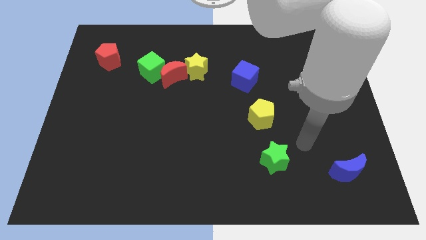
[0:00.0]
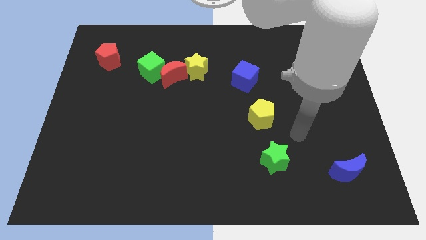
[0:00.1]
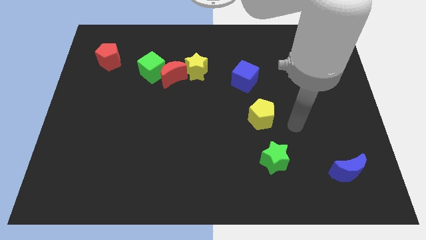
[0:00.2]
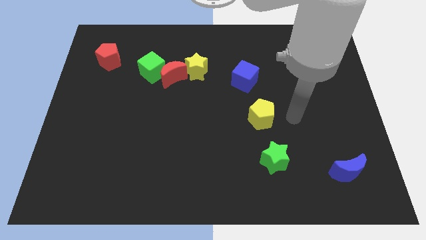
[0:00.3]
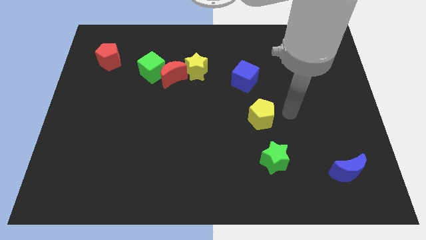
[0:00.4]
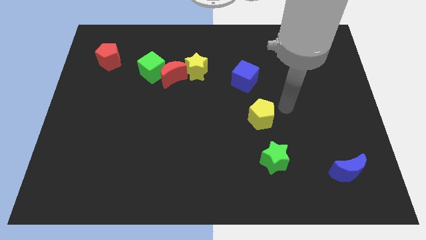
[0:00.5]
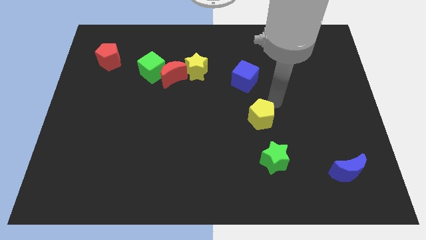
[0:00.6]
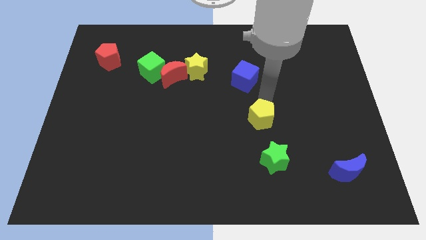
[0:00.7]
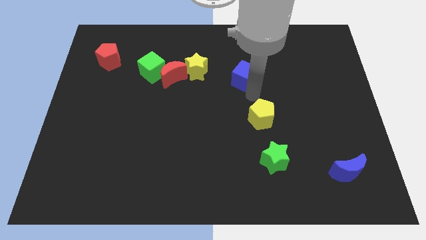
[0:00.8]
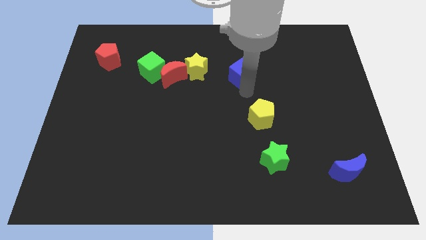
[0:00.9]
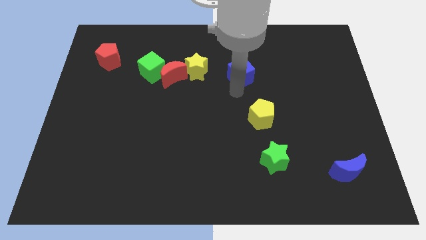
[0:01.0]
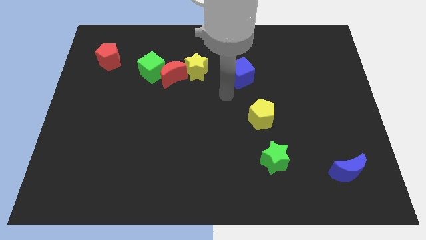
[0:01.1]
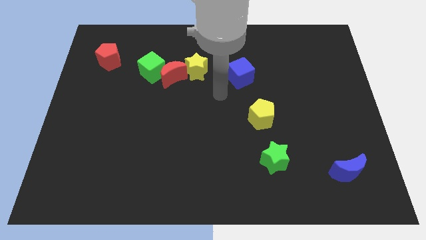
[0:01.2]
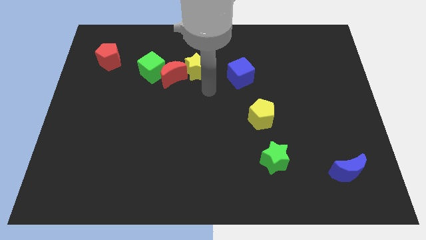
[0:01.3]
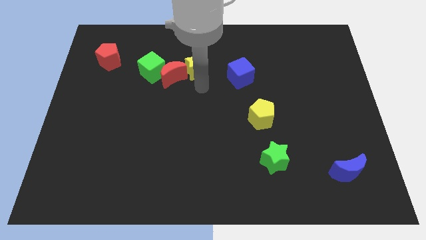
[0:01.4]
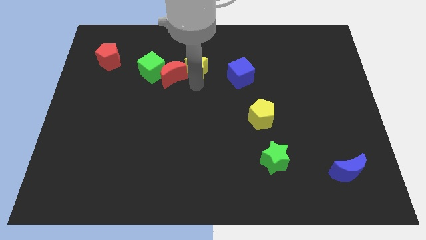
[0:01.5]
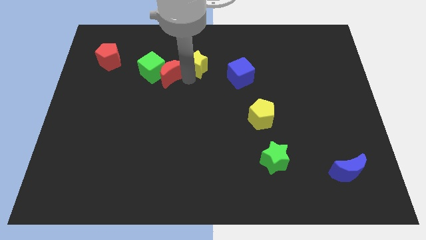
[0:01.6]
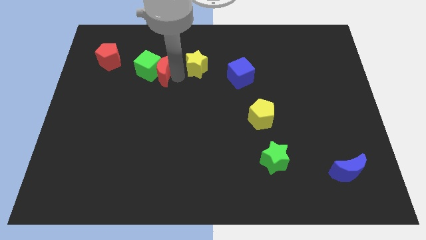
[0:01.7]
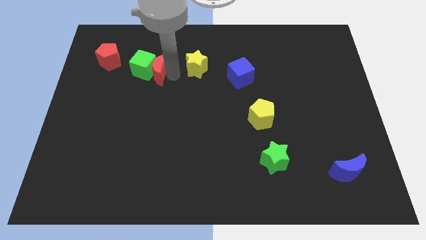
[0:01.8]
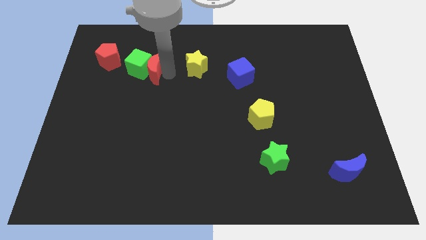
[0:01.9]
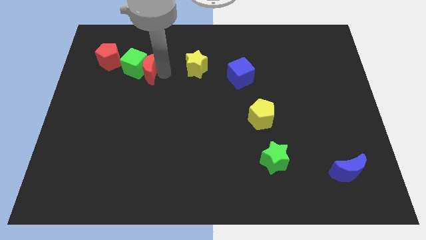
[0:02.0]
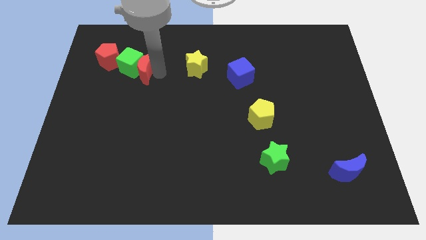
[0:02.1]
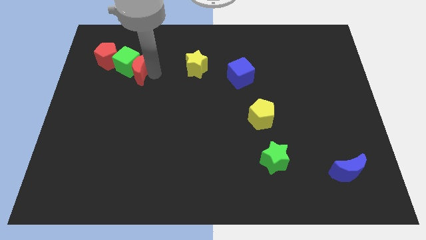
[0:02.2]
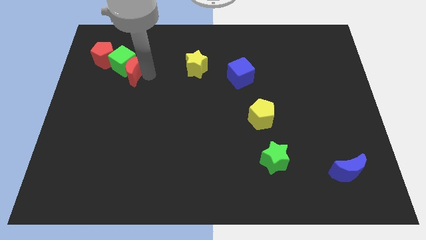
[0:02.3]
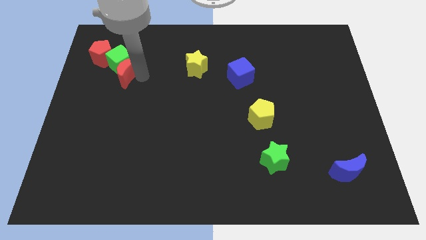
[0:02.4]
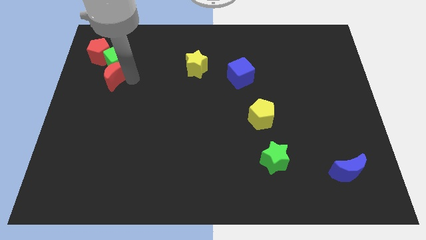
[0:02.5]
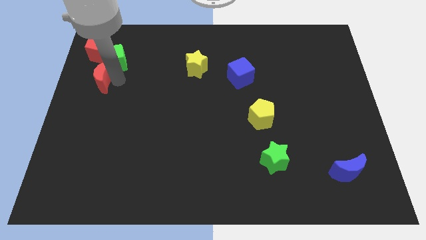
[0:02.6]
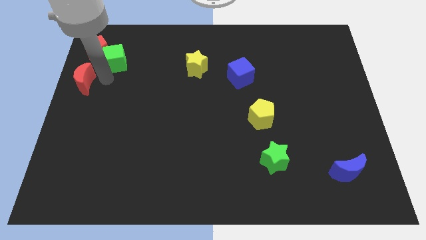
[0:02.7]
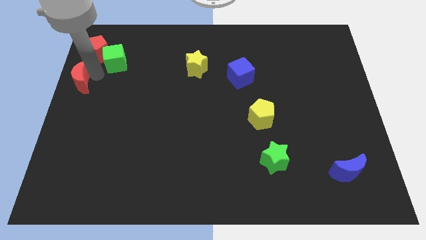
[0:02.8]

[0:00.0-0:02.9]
separate the green cube from the red moon

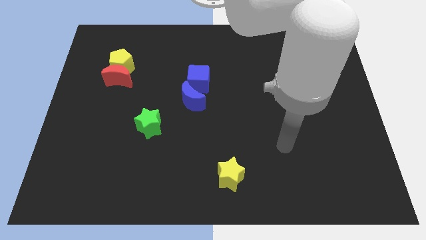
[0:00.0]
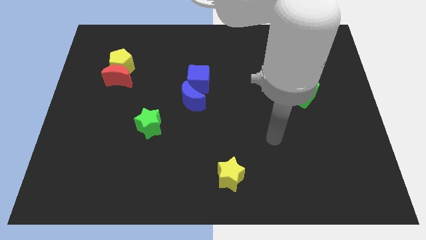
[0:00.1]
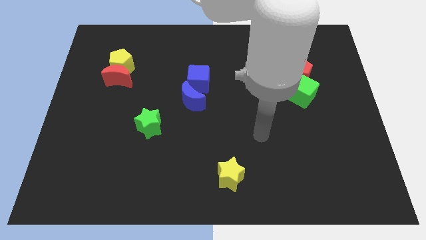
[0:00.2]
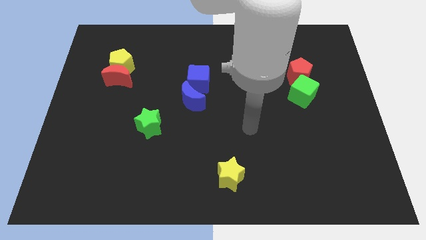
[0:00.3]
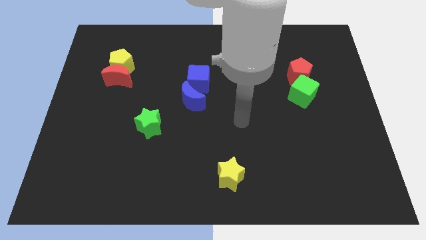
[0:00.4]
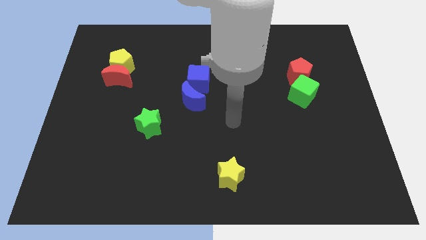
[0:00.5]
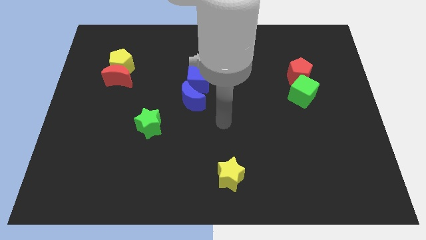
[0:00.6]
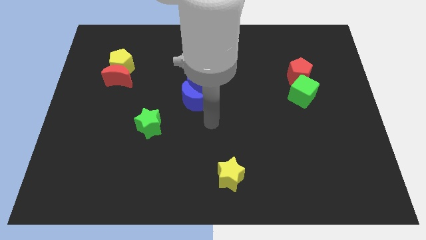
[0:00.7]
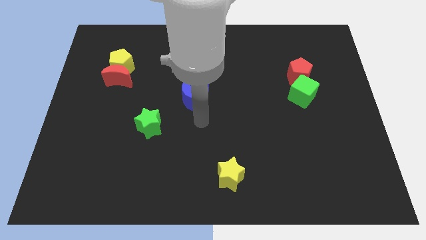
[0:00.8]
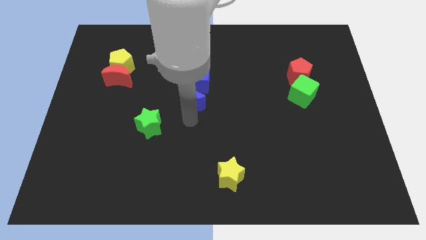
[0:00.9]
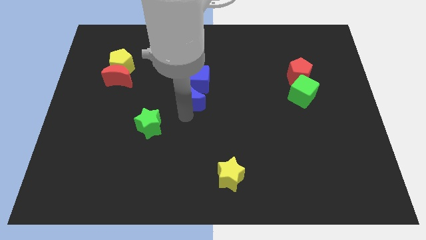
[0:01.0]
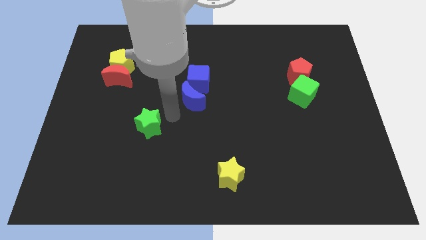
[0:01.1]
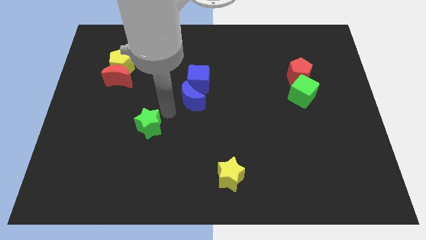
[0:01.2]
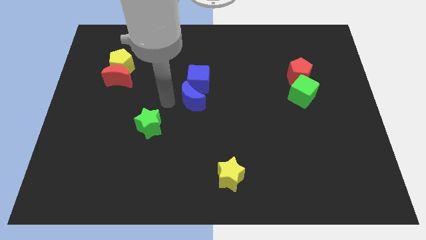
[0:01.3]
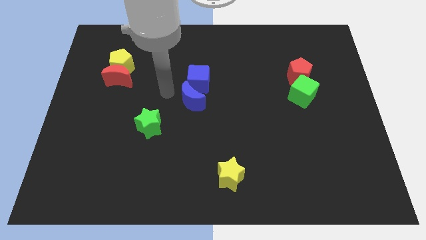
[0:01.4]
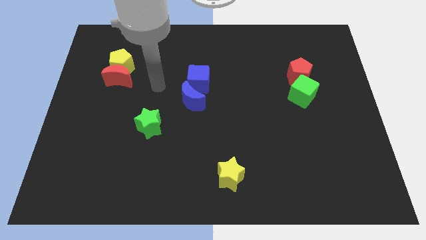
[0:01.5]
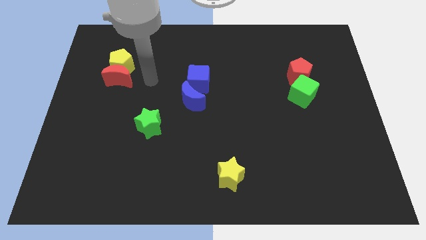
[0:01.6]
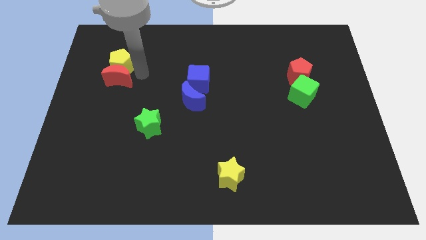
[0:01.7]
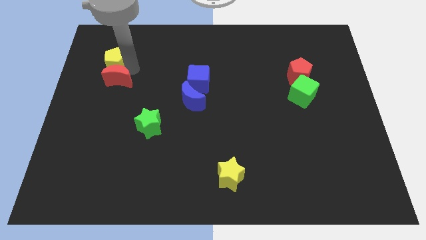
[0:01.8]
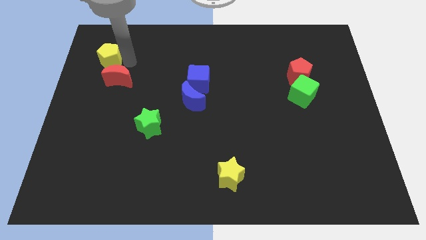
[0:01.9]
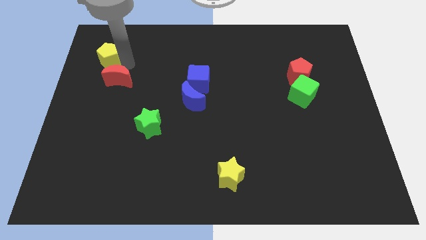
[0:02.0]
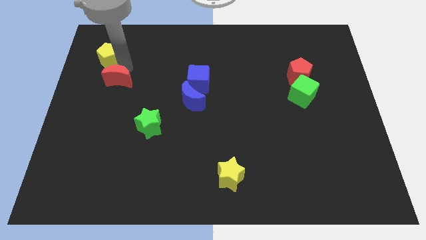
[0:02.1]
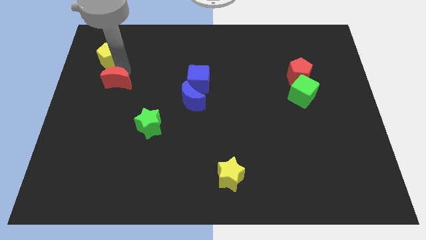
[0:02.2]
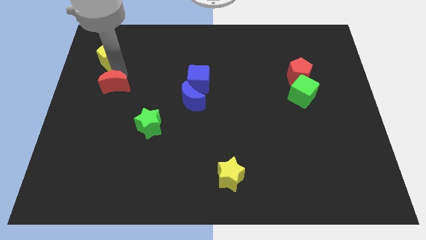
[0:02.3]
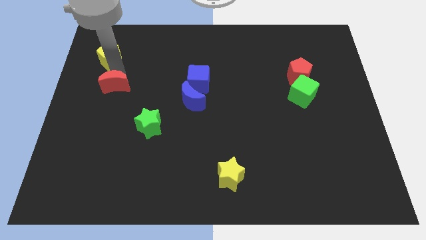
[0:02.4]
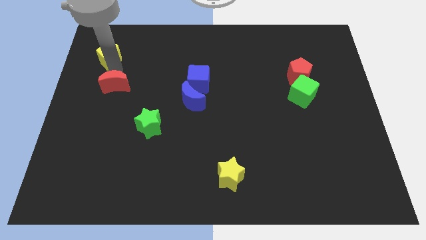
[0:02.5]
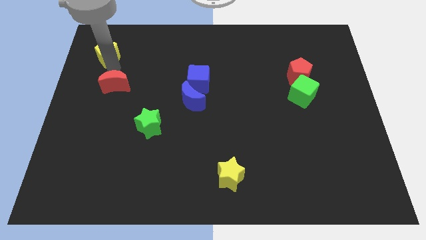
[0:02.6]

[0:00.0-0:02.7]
move the red moon away from the yellow pentagon

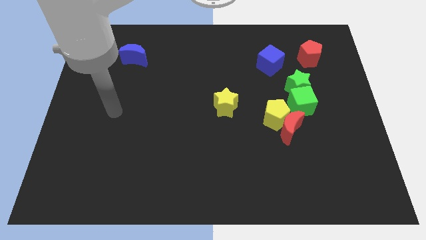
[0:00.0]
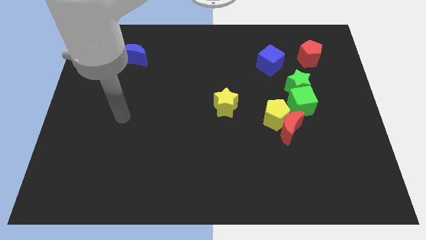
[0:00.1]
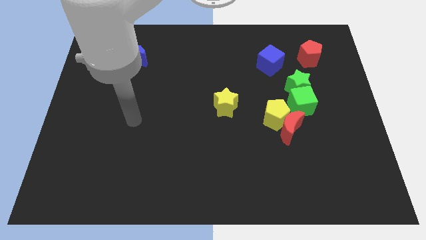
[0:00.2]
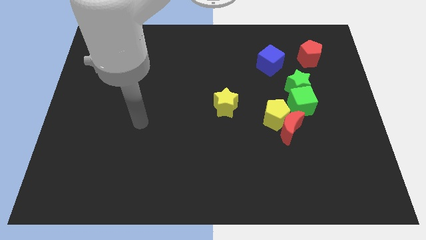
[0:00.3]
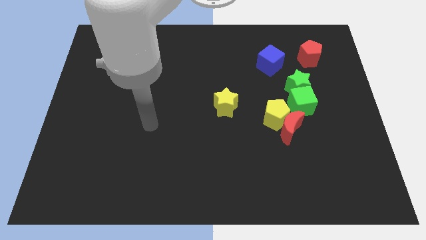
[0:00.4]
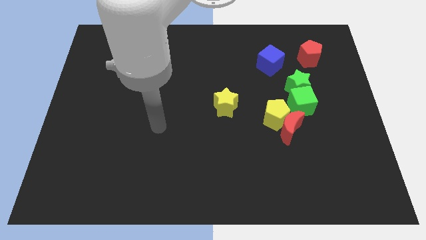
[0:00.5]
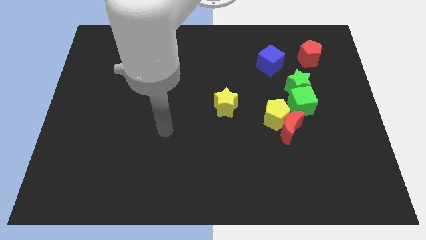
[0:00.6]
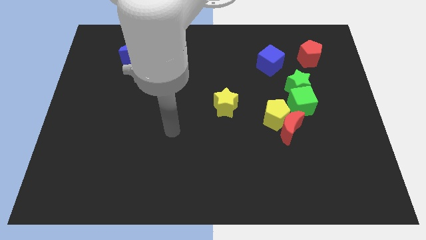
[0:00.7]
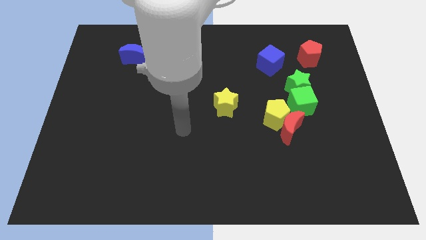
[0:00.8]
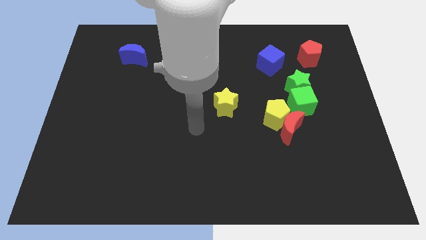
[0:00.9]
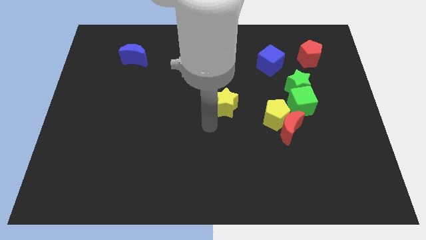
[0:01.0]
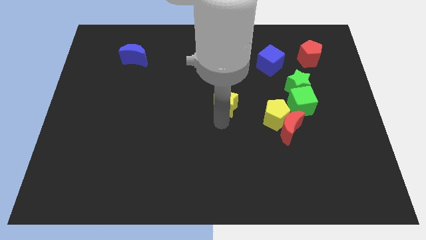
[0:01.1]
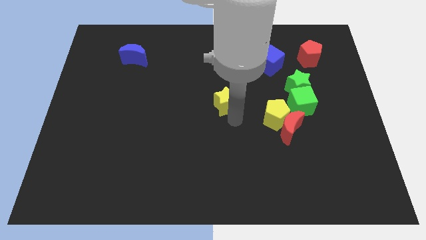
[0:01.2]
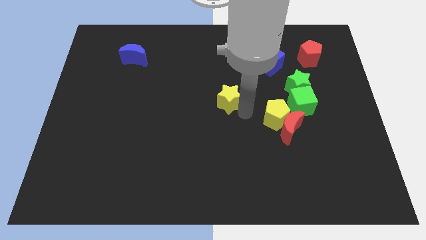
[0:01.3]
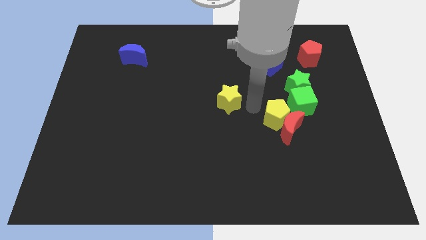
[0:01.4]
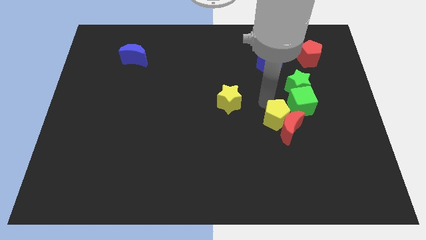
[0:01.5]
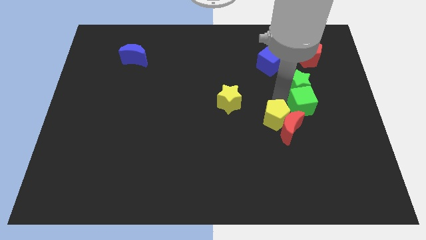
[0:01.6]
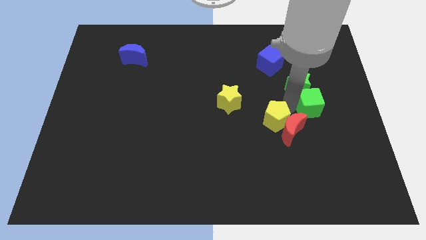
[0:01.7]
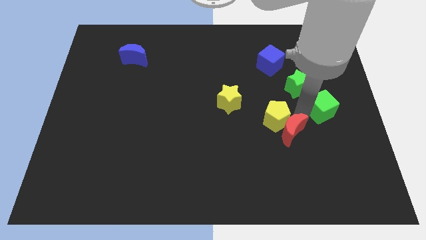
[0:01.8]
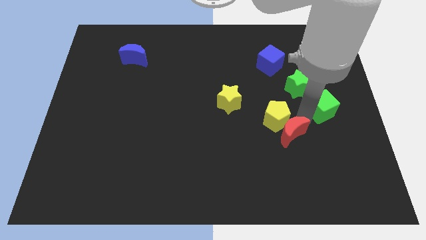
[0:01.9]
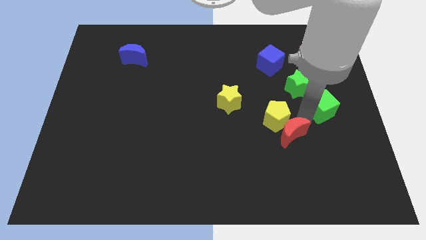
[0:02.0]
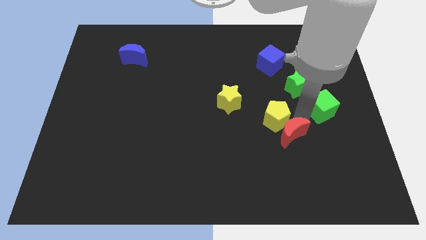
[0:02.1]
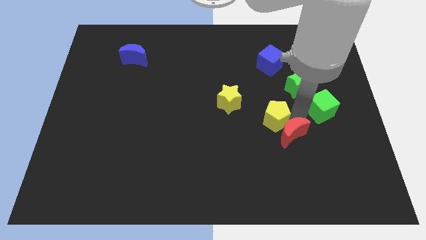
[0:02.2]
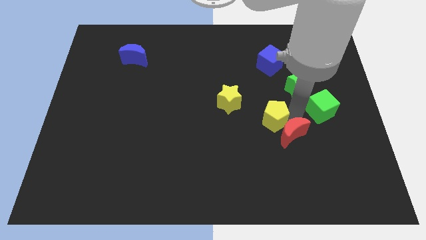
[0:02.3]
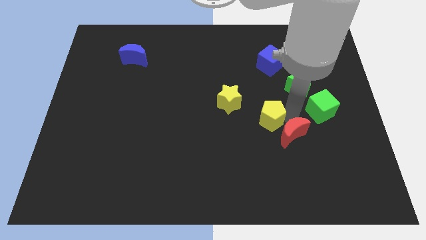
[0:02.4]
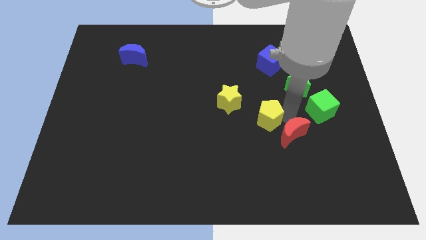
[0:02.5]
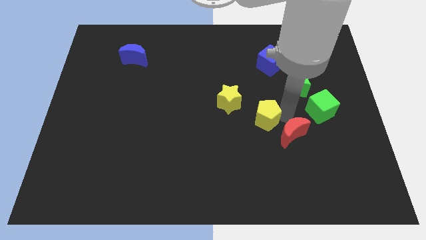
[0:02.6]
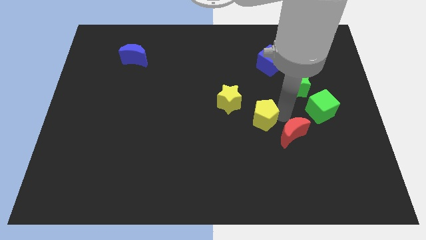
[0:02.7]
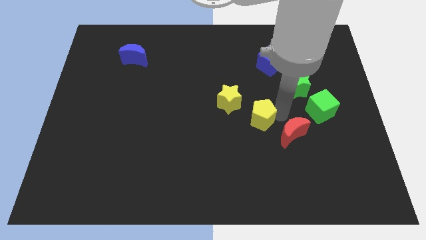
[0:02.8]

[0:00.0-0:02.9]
pull the yellow pentagon apart from the red moon and green cube

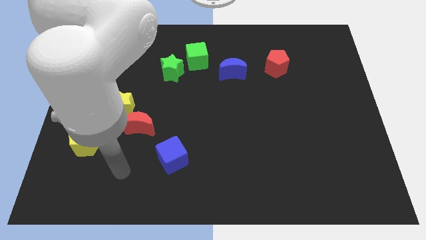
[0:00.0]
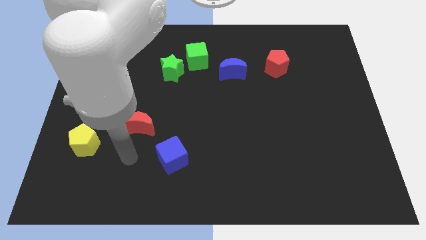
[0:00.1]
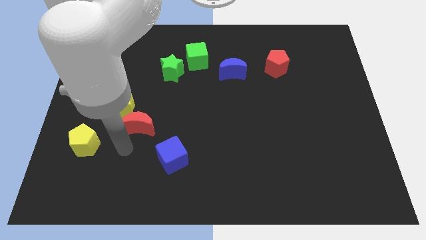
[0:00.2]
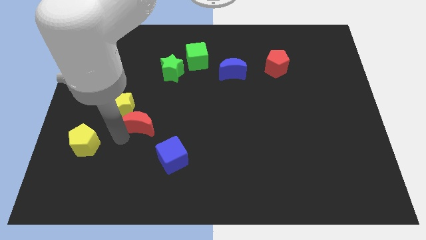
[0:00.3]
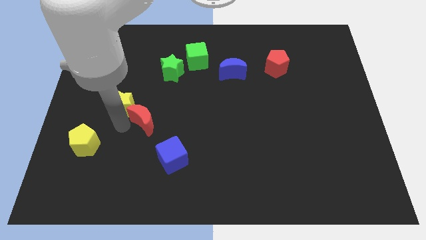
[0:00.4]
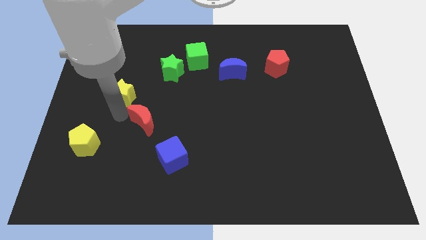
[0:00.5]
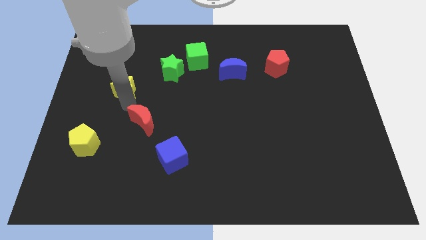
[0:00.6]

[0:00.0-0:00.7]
pull the red moon apart from the yellow star

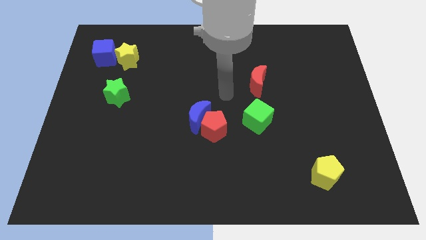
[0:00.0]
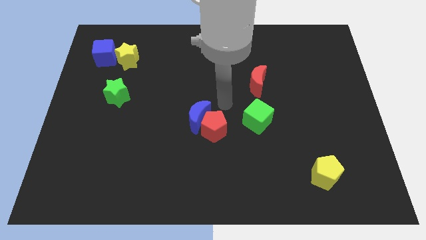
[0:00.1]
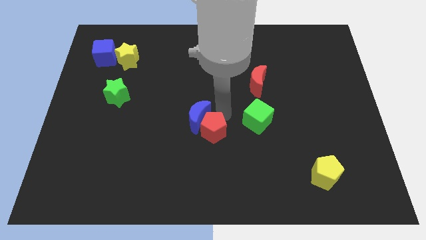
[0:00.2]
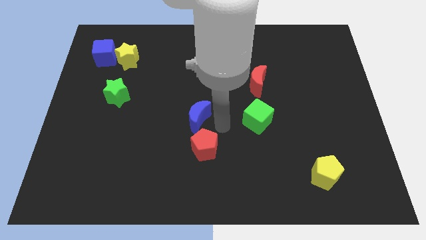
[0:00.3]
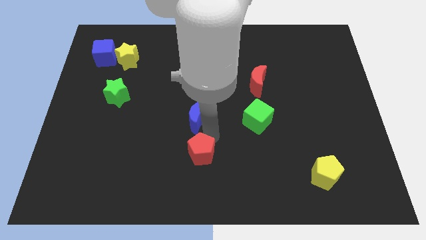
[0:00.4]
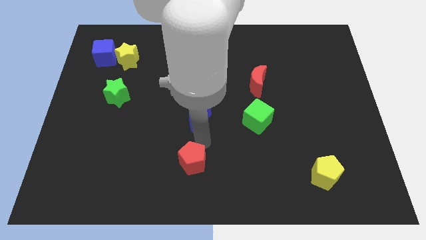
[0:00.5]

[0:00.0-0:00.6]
pull the blue moon apart from the red pentagon
